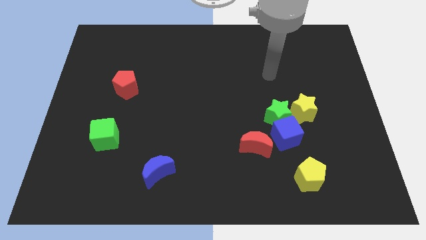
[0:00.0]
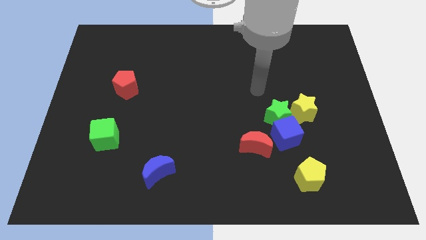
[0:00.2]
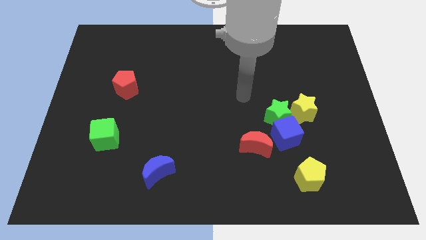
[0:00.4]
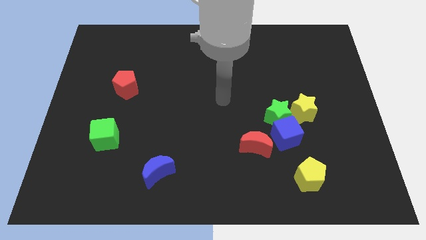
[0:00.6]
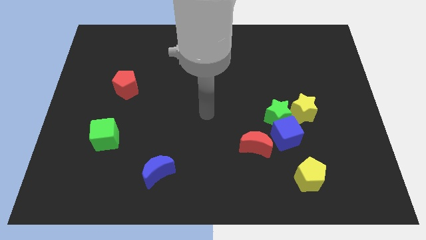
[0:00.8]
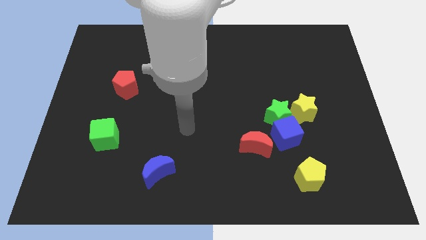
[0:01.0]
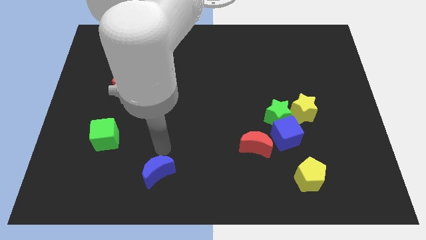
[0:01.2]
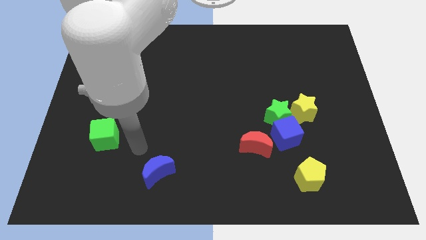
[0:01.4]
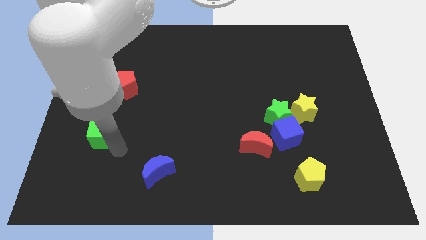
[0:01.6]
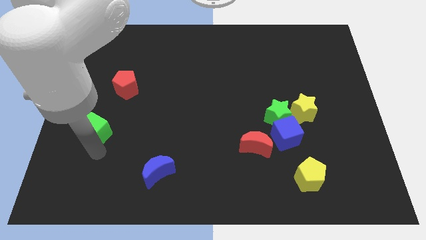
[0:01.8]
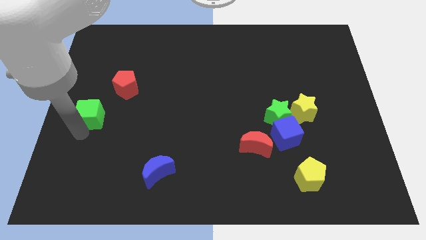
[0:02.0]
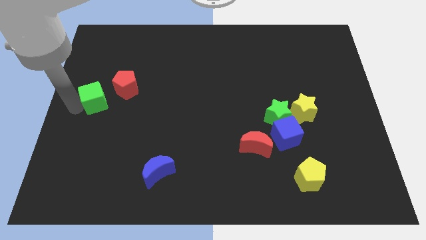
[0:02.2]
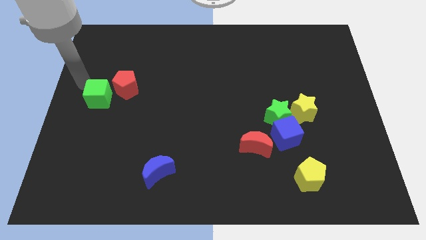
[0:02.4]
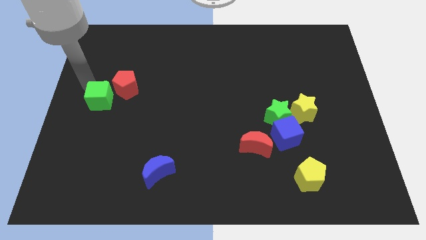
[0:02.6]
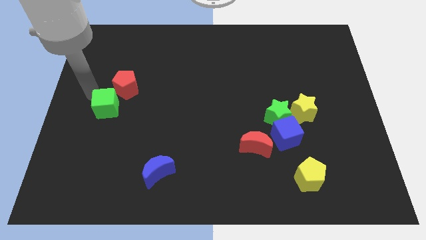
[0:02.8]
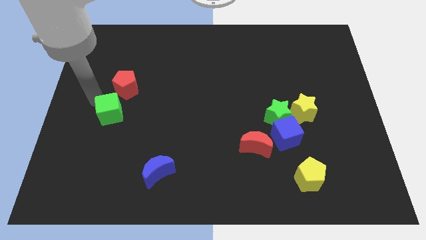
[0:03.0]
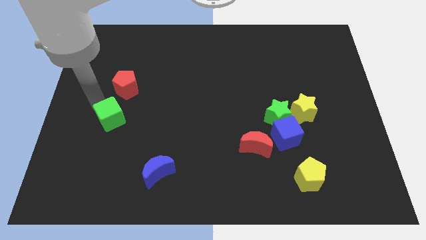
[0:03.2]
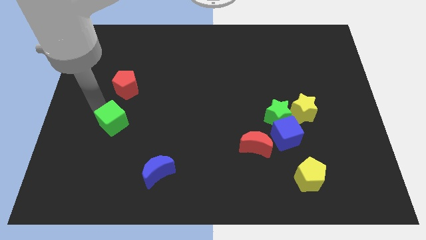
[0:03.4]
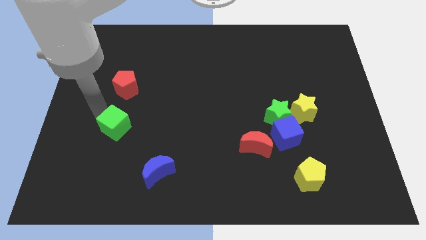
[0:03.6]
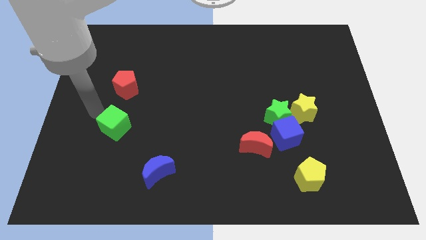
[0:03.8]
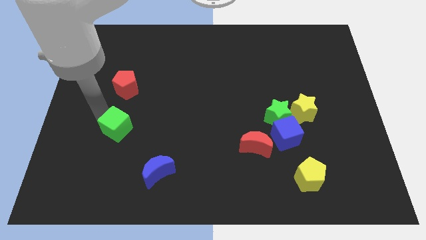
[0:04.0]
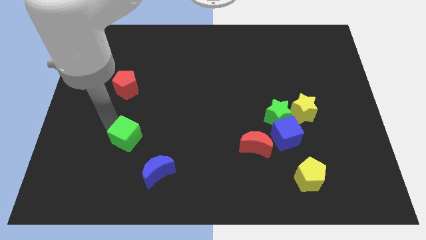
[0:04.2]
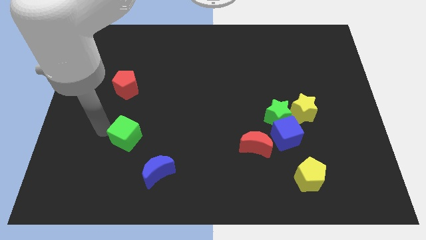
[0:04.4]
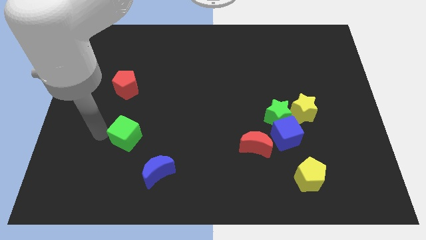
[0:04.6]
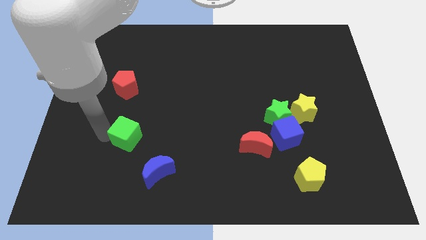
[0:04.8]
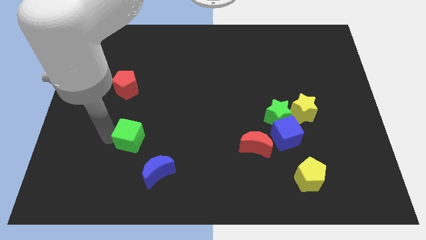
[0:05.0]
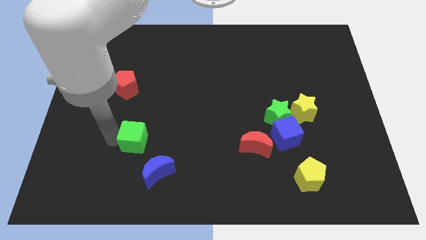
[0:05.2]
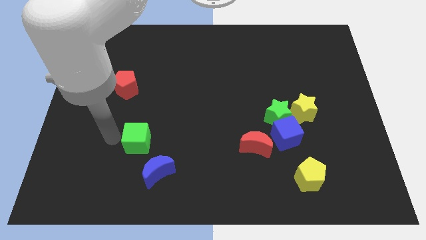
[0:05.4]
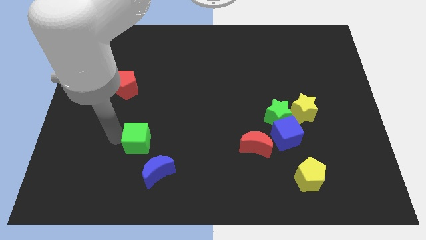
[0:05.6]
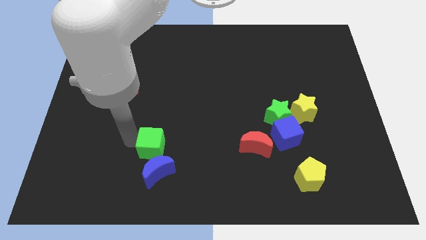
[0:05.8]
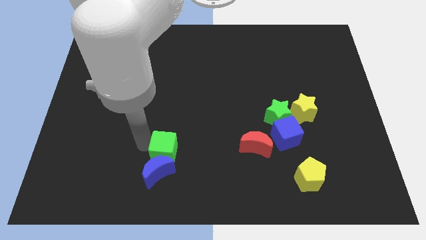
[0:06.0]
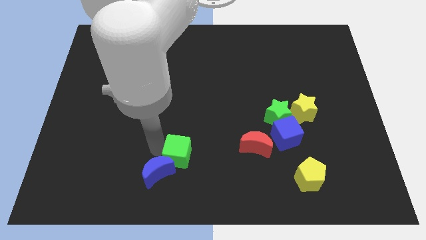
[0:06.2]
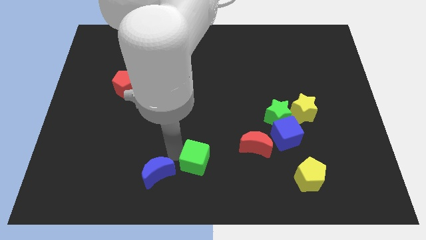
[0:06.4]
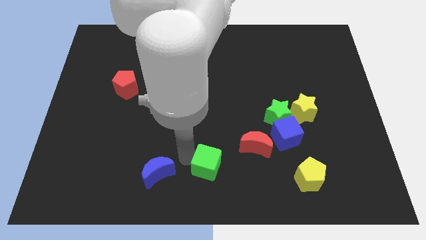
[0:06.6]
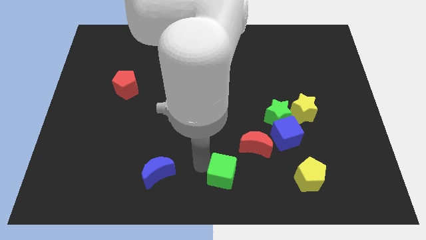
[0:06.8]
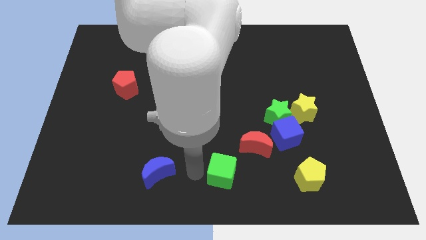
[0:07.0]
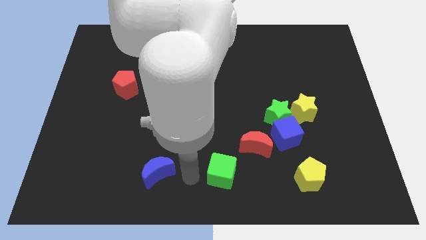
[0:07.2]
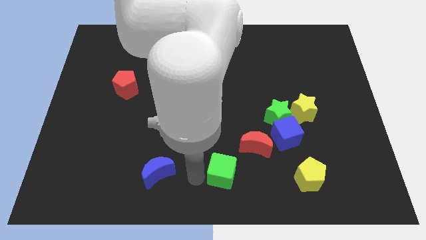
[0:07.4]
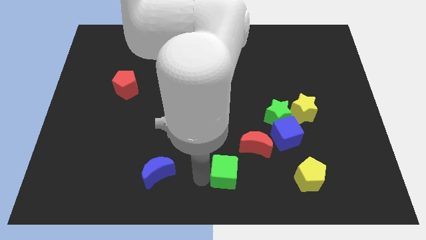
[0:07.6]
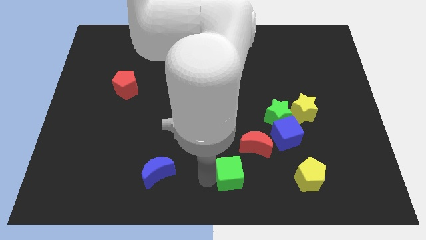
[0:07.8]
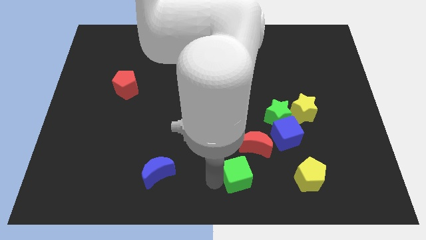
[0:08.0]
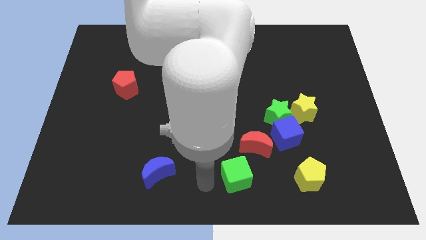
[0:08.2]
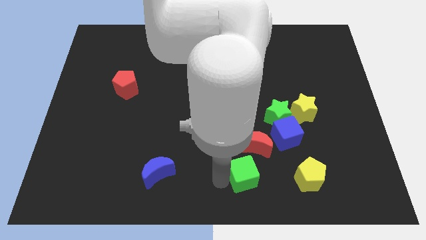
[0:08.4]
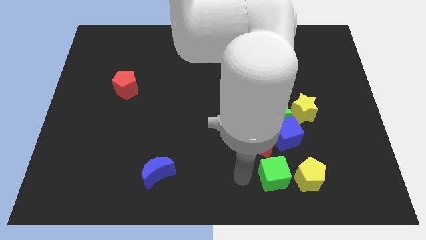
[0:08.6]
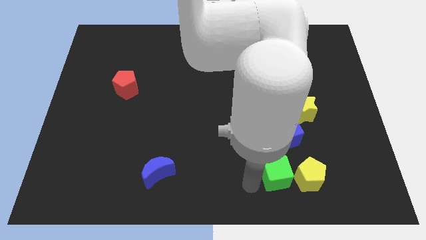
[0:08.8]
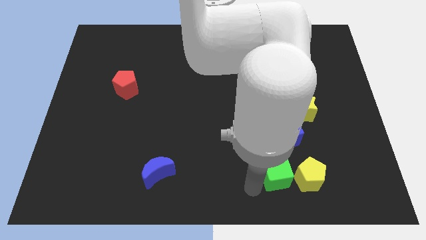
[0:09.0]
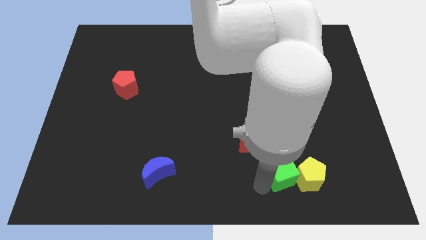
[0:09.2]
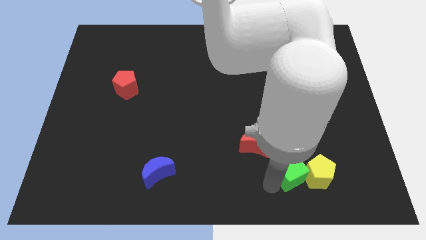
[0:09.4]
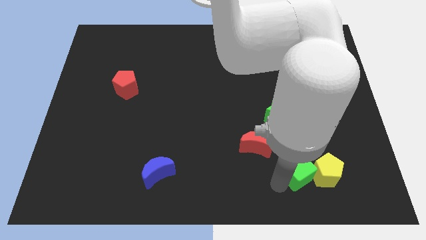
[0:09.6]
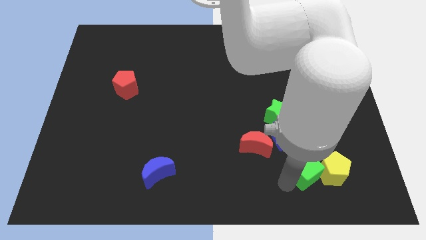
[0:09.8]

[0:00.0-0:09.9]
slide the green cube diagonally down and to the right of the blue cube

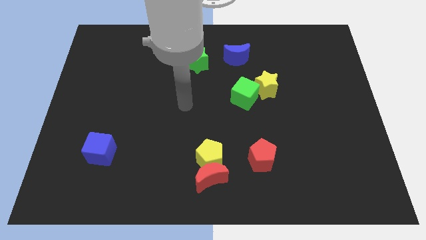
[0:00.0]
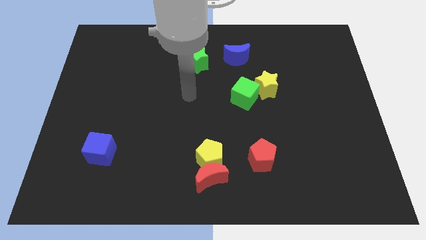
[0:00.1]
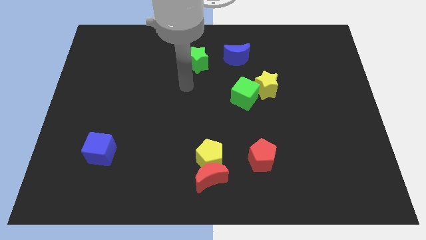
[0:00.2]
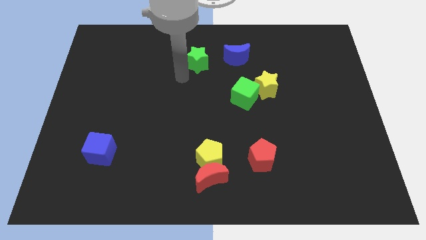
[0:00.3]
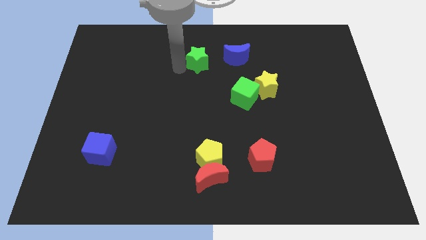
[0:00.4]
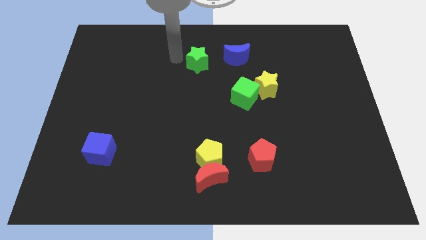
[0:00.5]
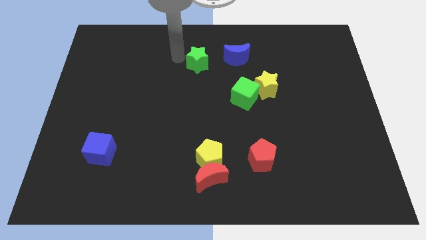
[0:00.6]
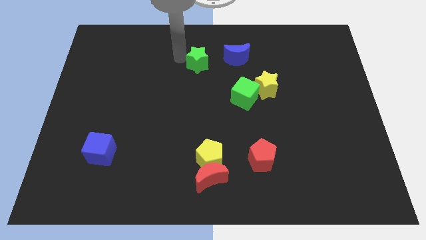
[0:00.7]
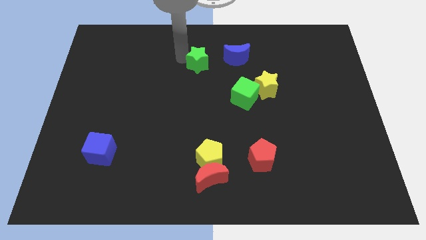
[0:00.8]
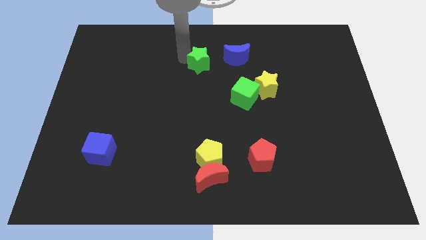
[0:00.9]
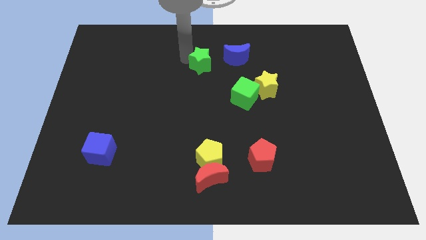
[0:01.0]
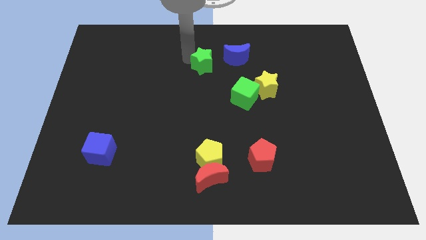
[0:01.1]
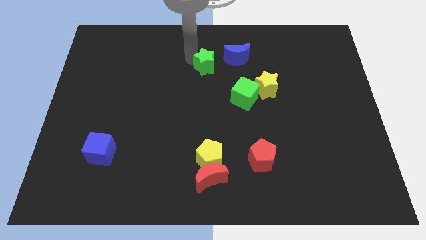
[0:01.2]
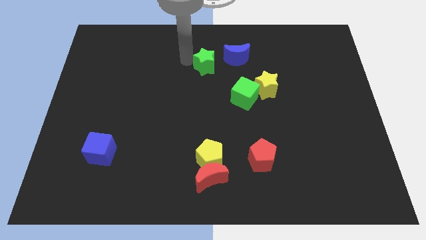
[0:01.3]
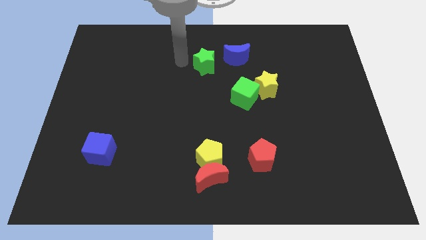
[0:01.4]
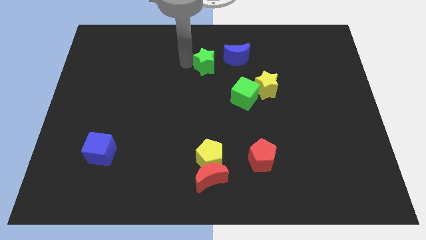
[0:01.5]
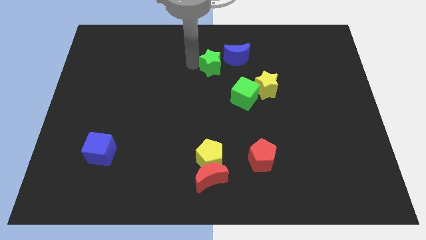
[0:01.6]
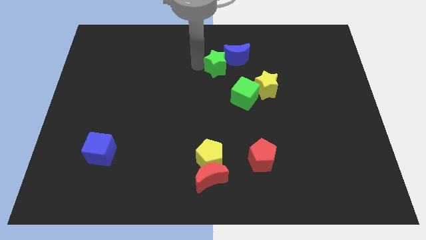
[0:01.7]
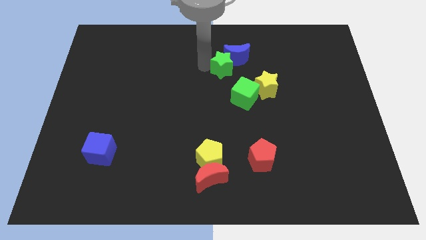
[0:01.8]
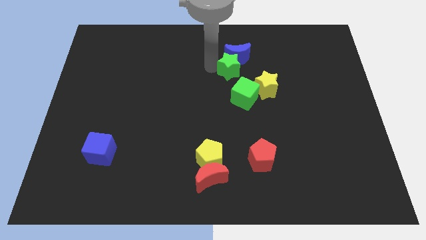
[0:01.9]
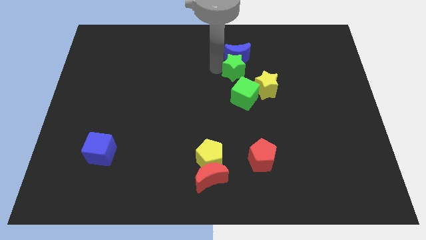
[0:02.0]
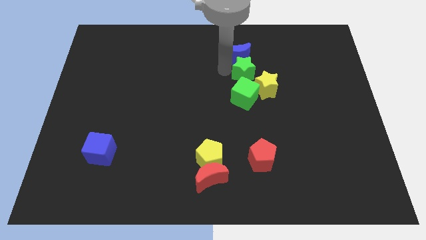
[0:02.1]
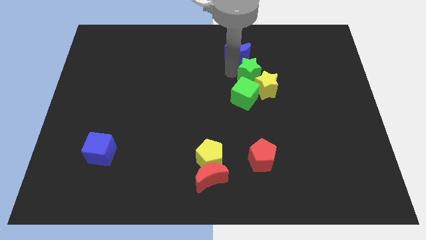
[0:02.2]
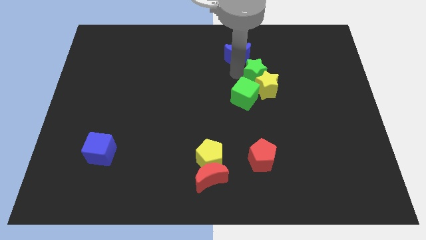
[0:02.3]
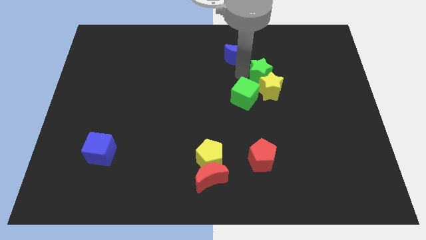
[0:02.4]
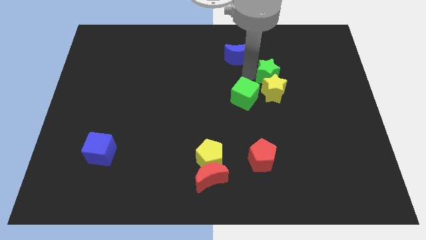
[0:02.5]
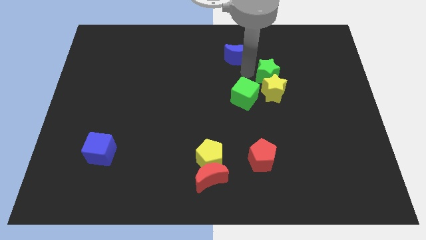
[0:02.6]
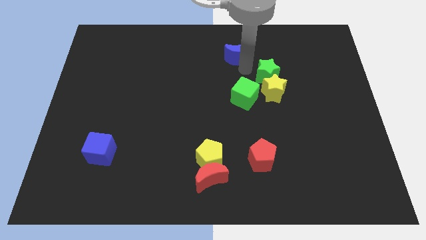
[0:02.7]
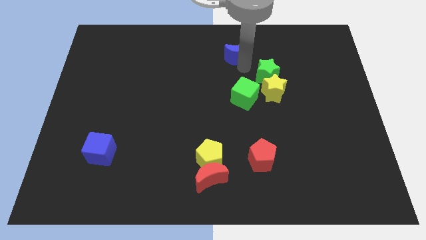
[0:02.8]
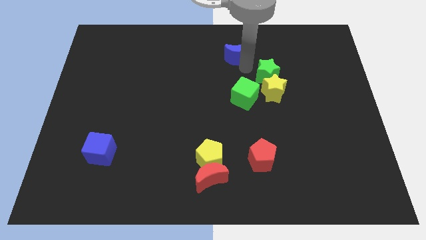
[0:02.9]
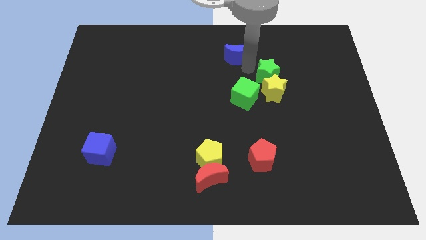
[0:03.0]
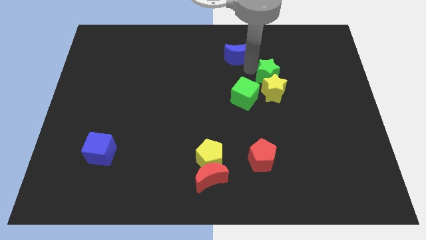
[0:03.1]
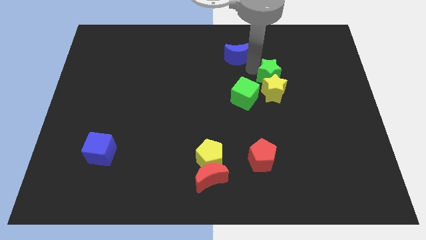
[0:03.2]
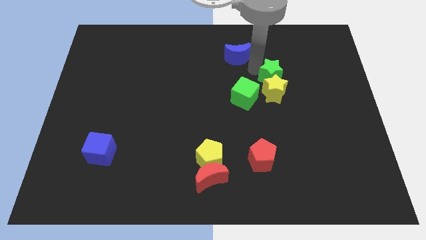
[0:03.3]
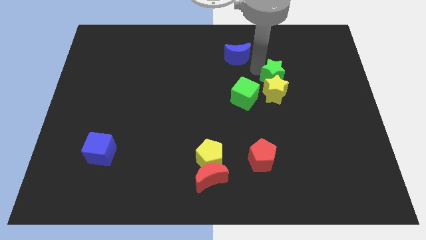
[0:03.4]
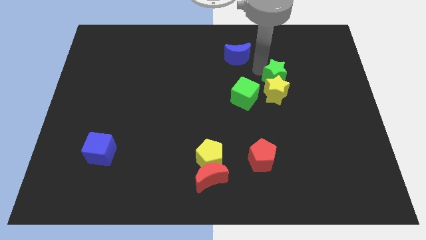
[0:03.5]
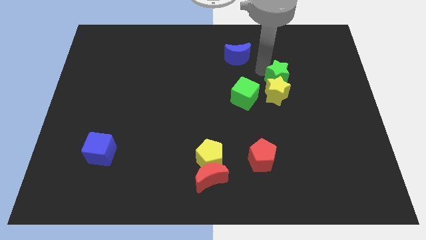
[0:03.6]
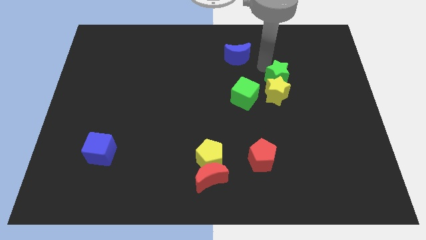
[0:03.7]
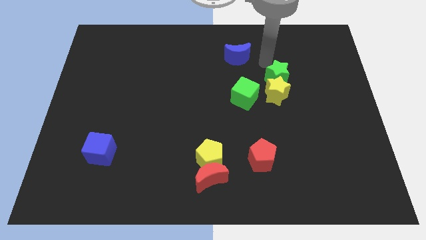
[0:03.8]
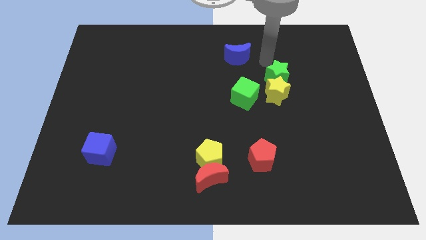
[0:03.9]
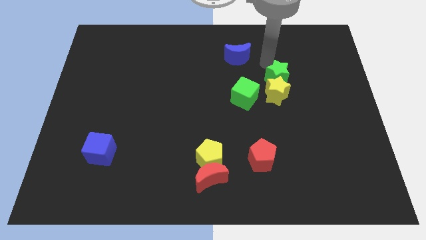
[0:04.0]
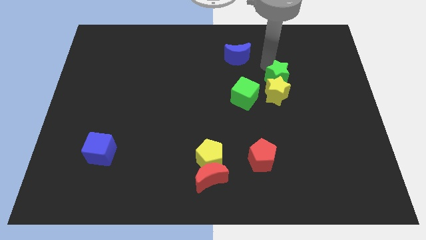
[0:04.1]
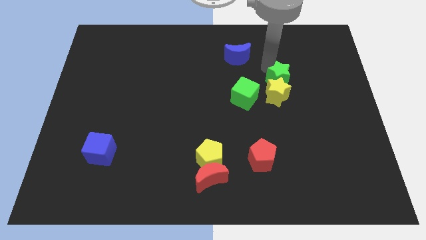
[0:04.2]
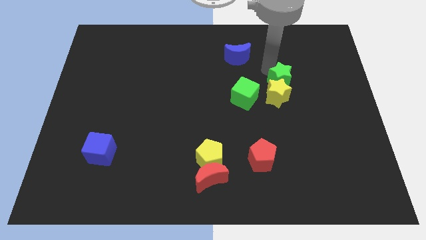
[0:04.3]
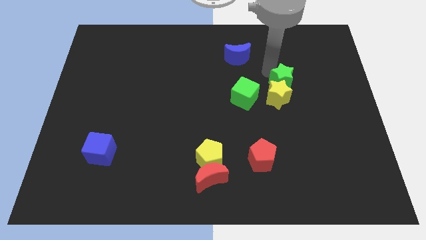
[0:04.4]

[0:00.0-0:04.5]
move the green star to the right of the green cube
